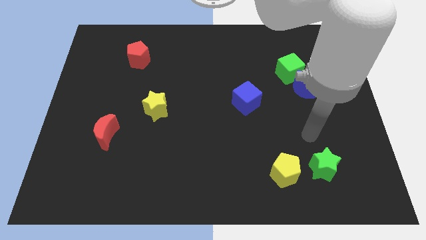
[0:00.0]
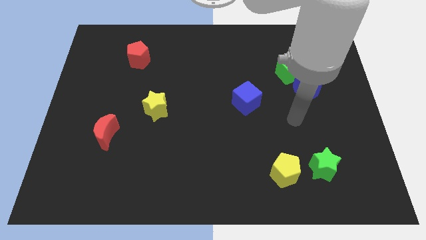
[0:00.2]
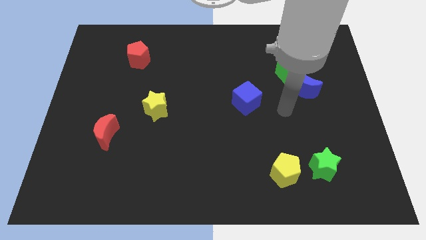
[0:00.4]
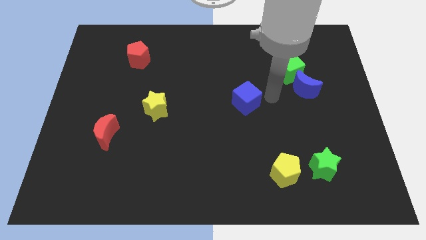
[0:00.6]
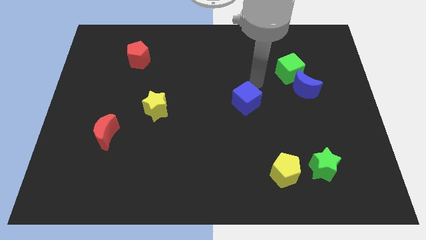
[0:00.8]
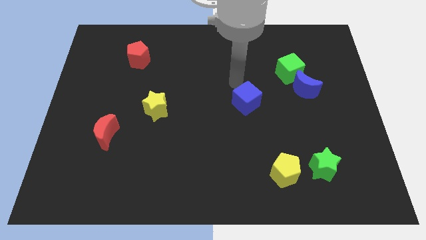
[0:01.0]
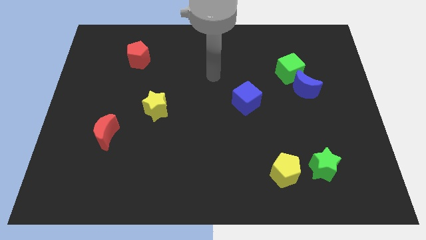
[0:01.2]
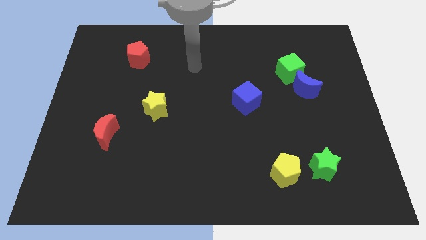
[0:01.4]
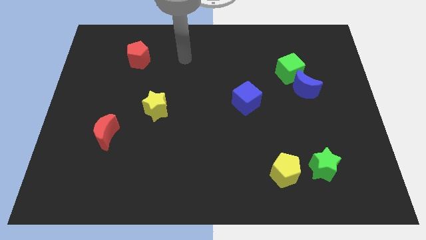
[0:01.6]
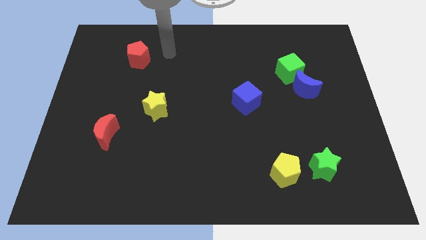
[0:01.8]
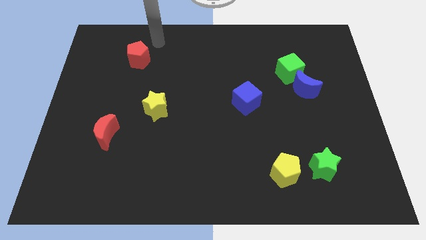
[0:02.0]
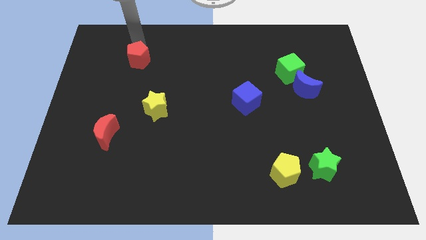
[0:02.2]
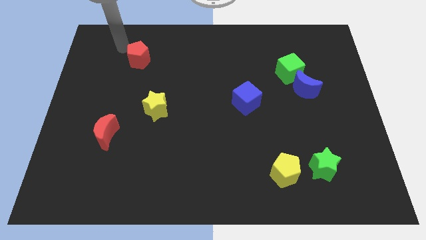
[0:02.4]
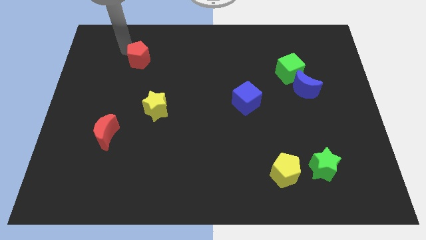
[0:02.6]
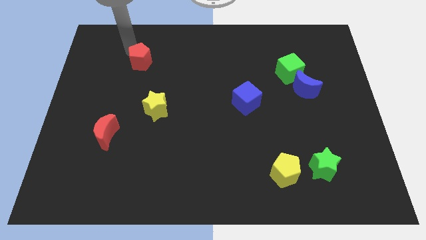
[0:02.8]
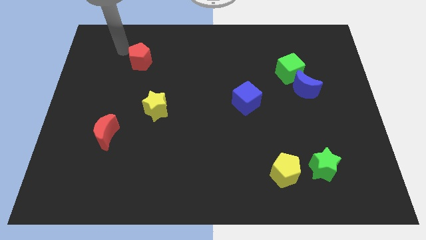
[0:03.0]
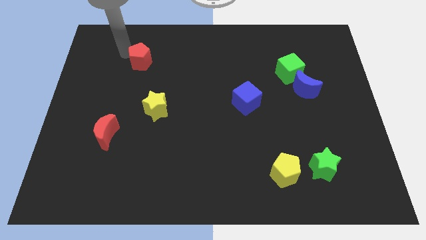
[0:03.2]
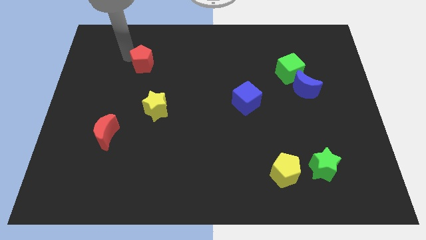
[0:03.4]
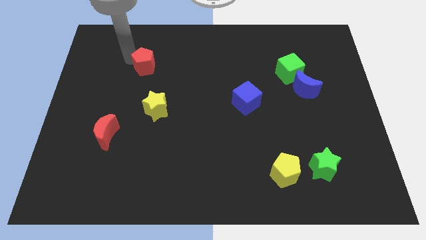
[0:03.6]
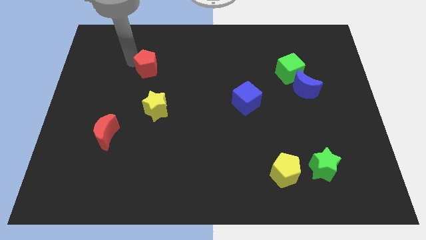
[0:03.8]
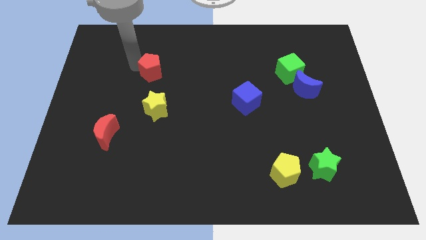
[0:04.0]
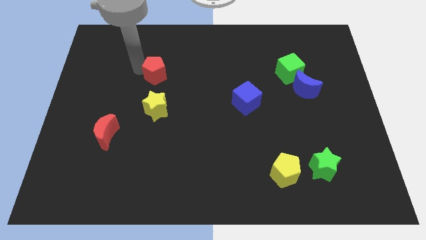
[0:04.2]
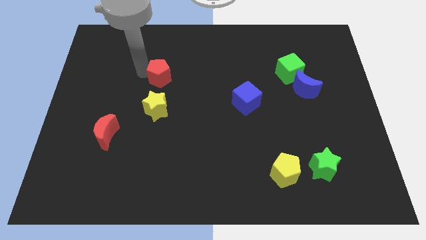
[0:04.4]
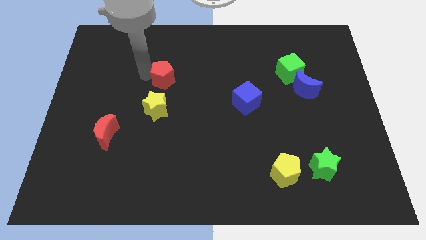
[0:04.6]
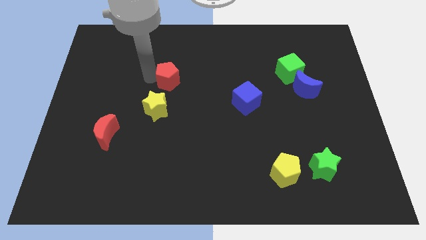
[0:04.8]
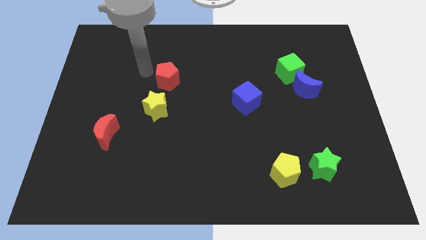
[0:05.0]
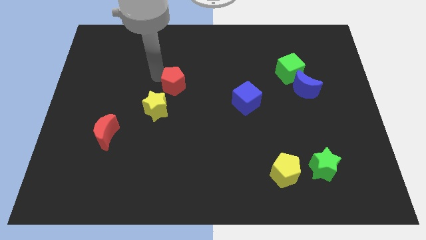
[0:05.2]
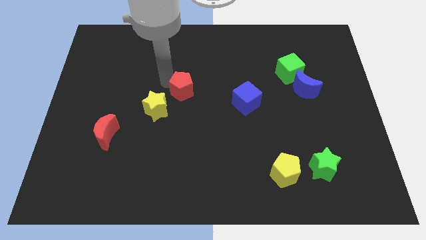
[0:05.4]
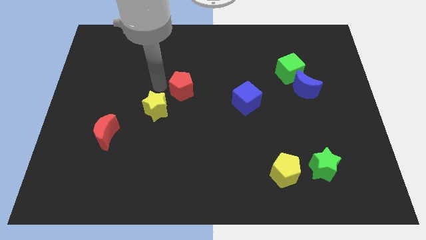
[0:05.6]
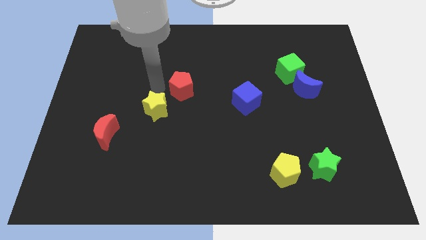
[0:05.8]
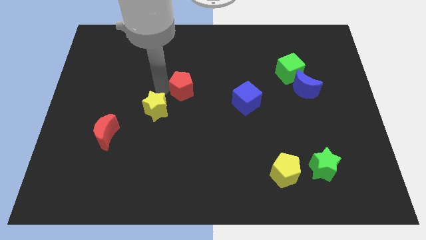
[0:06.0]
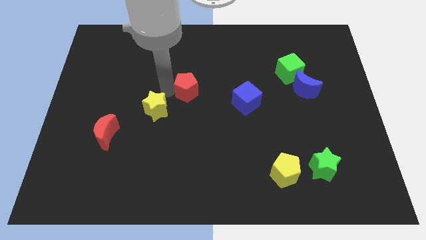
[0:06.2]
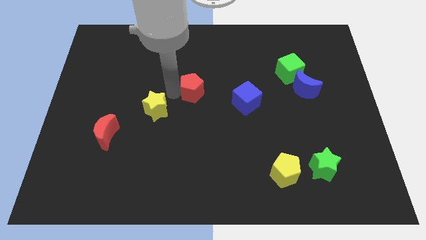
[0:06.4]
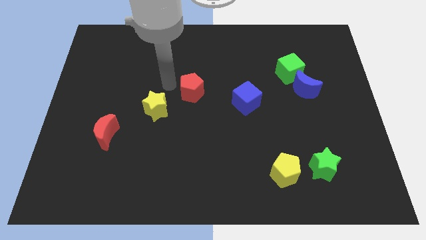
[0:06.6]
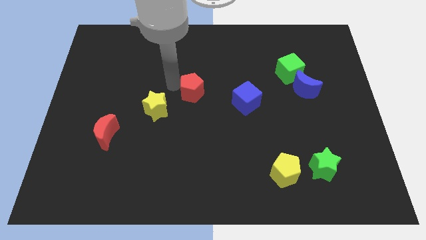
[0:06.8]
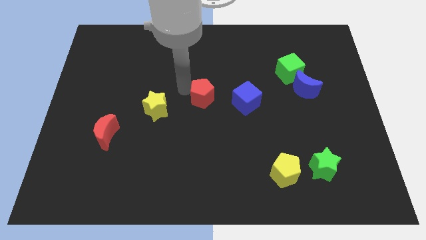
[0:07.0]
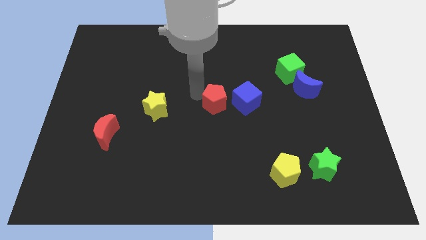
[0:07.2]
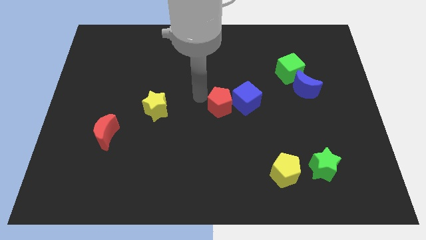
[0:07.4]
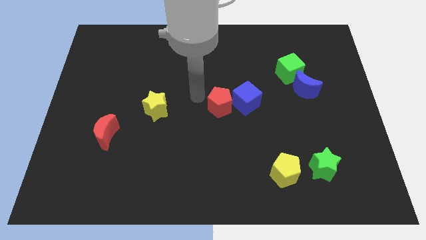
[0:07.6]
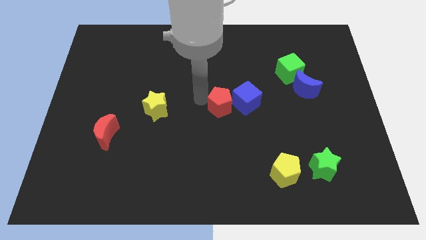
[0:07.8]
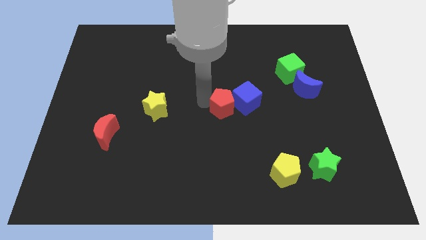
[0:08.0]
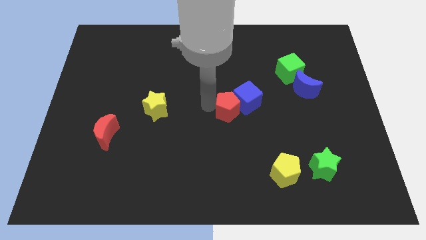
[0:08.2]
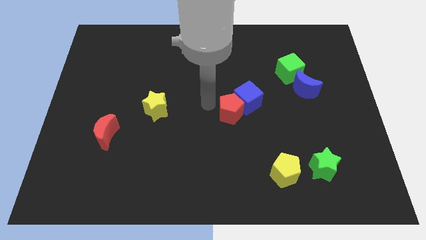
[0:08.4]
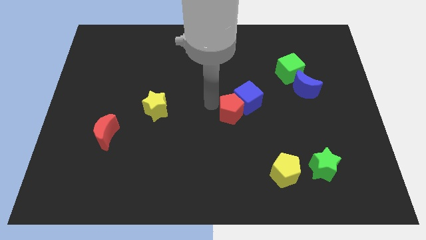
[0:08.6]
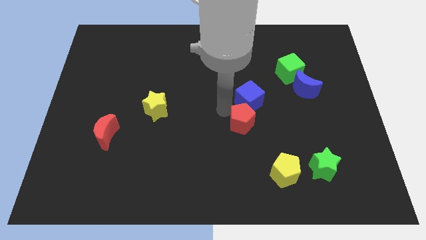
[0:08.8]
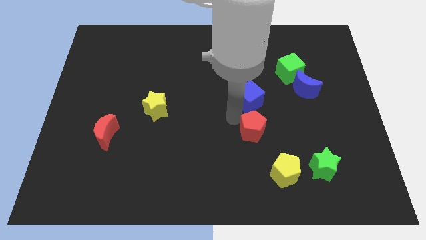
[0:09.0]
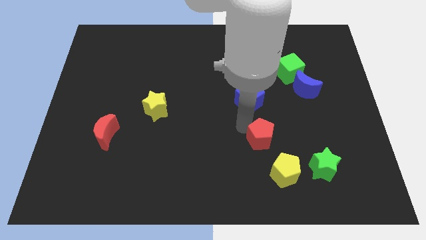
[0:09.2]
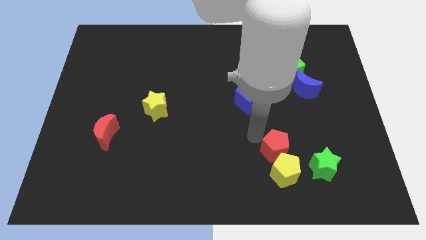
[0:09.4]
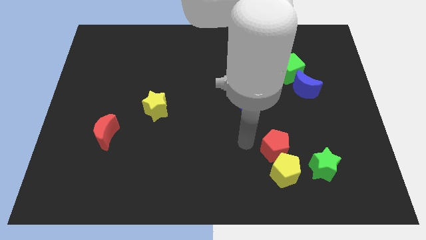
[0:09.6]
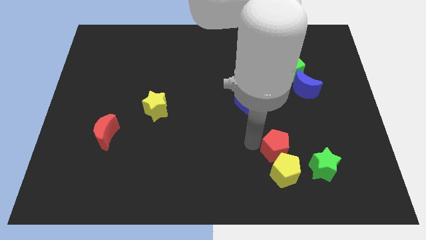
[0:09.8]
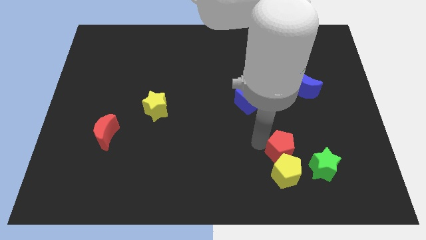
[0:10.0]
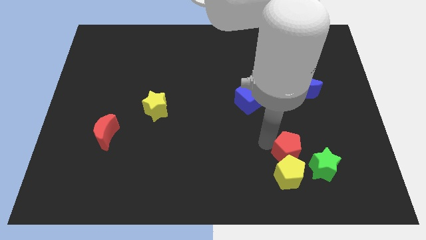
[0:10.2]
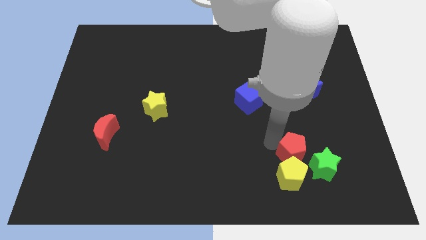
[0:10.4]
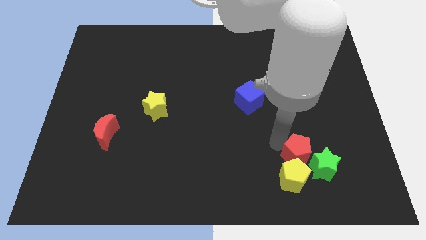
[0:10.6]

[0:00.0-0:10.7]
push the red pentagon close to the green star

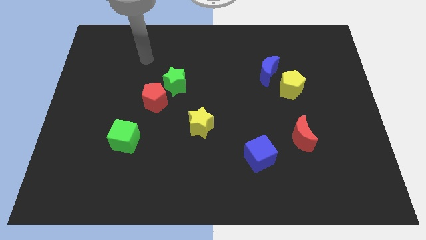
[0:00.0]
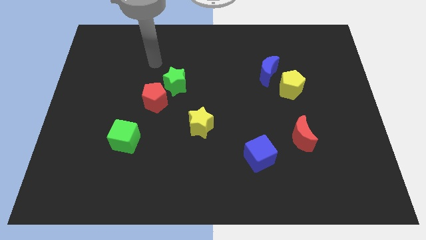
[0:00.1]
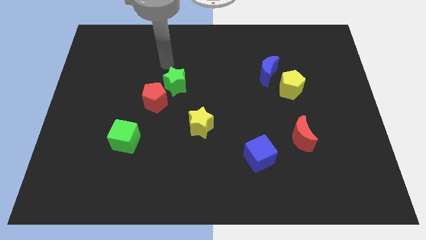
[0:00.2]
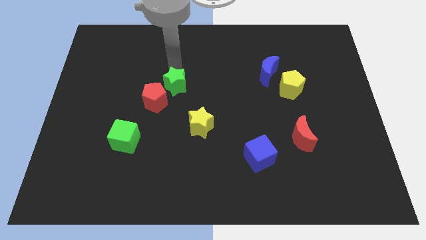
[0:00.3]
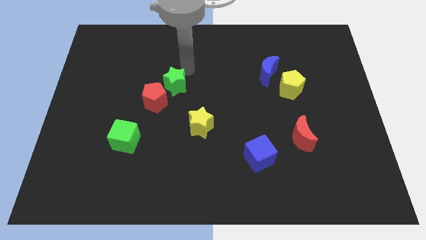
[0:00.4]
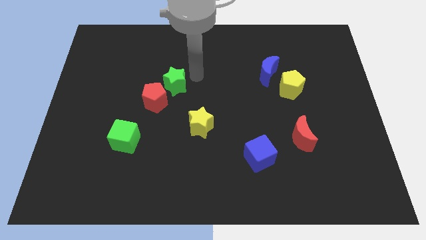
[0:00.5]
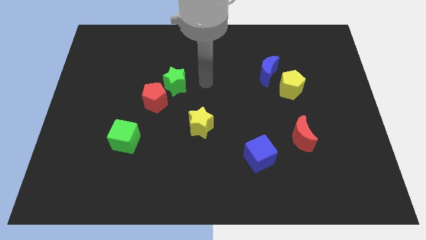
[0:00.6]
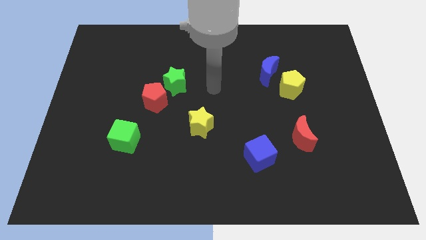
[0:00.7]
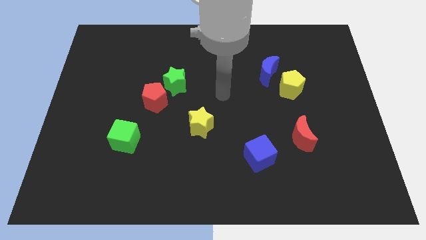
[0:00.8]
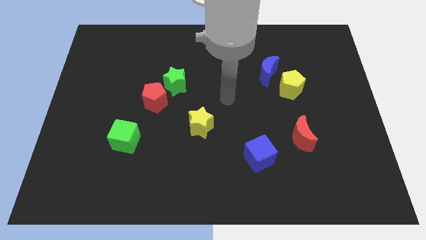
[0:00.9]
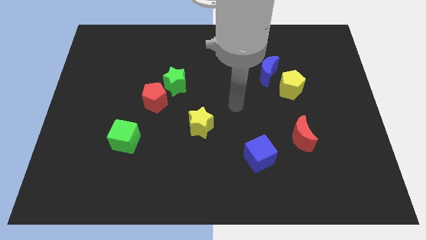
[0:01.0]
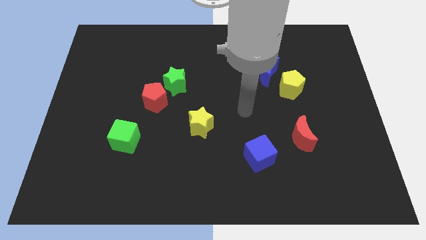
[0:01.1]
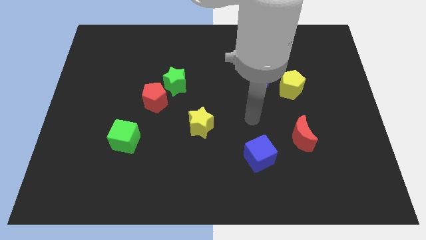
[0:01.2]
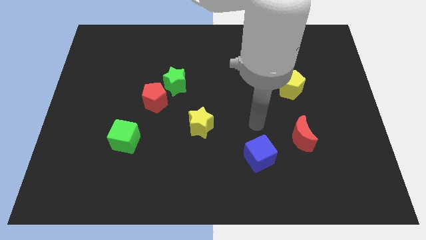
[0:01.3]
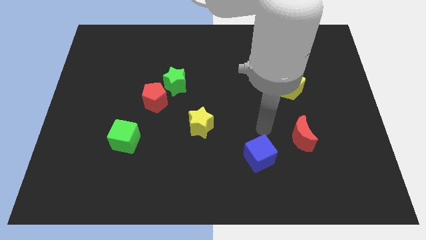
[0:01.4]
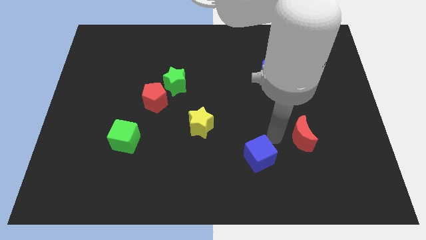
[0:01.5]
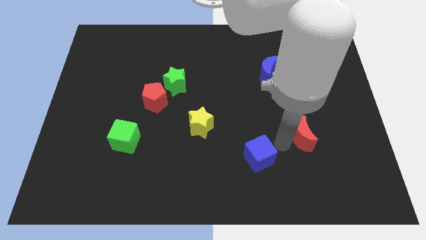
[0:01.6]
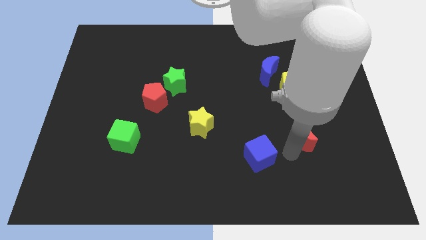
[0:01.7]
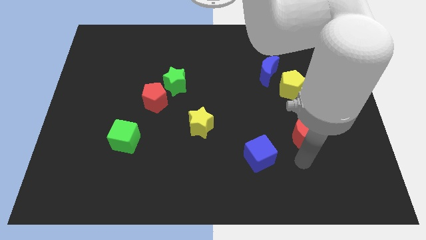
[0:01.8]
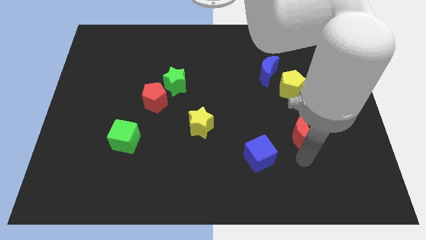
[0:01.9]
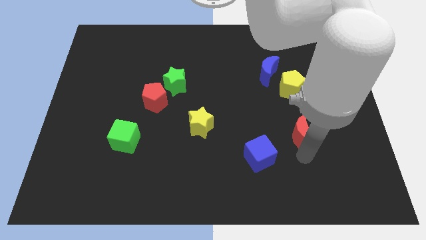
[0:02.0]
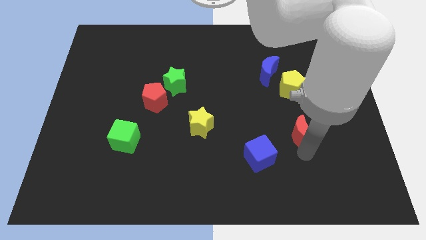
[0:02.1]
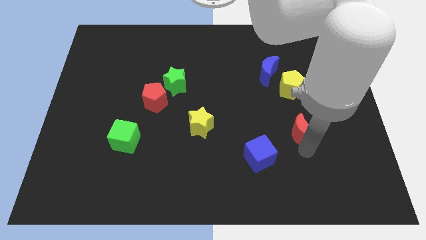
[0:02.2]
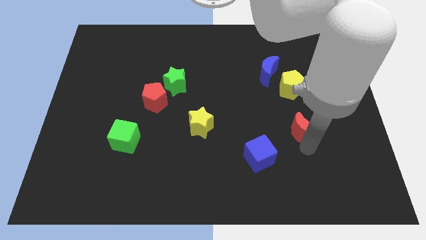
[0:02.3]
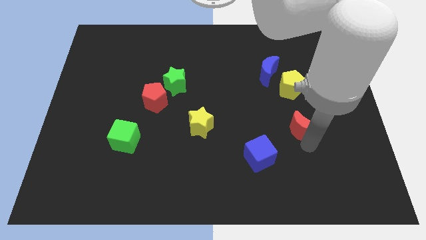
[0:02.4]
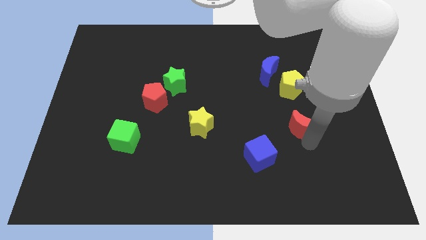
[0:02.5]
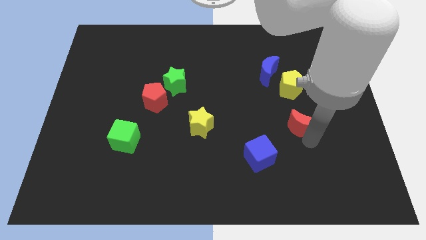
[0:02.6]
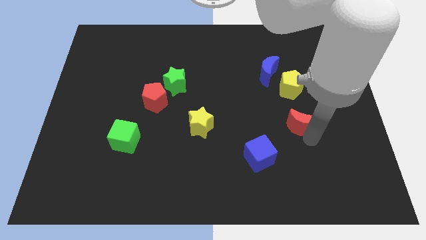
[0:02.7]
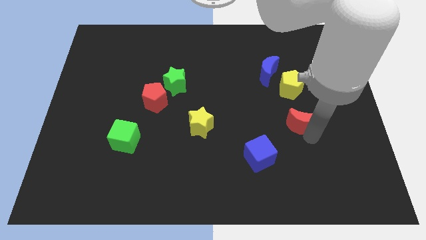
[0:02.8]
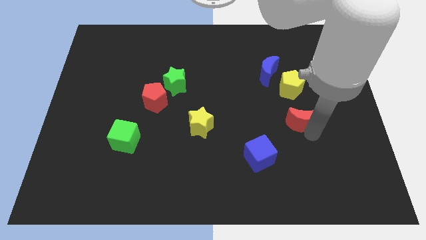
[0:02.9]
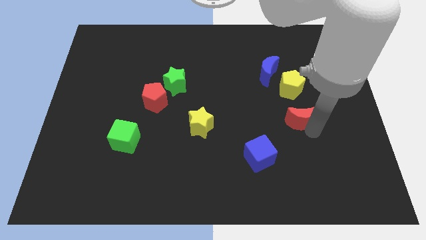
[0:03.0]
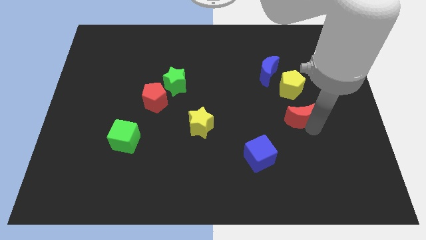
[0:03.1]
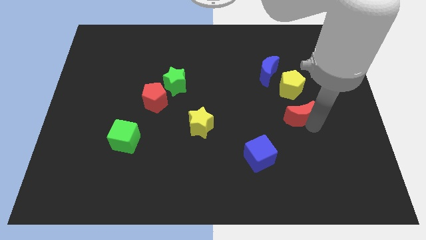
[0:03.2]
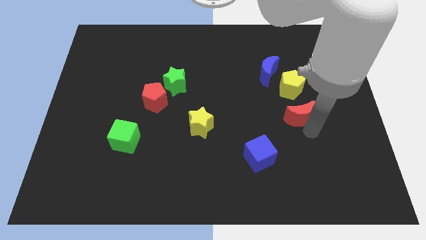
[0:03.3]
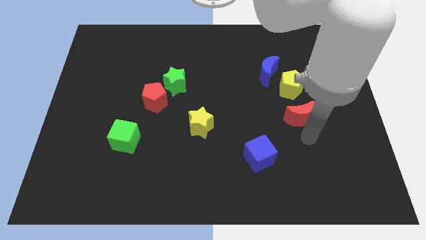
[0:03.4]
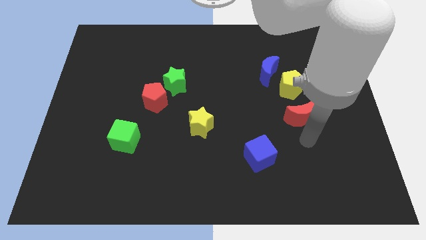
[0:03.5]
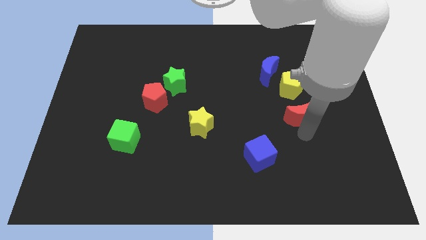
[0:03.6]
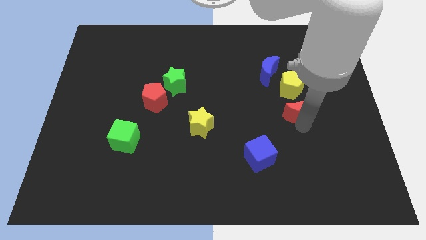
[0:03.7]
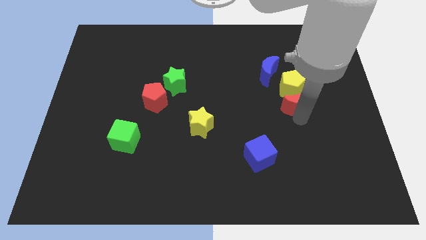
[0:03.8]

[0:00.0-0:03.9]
put the red moon to the yellow pentagon
